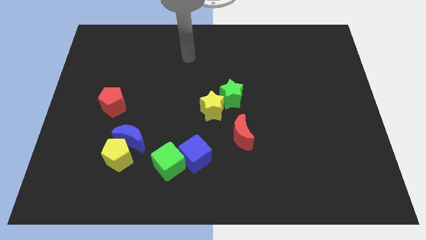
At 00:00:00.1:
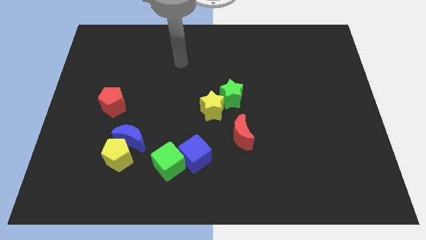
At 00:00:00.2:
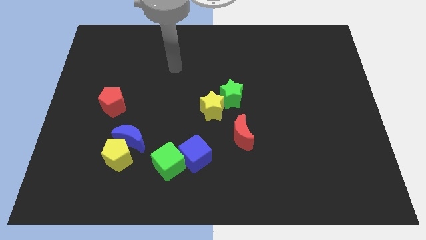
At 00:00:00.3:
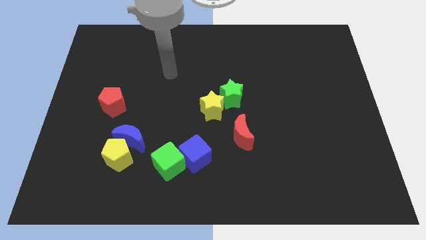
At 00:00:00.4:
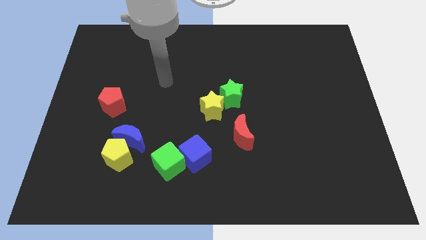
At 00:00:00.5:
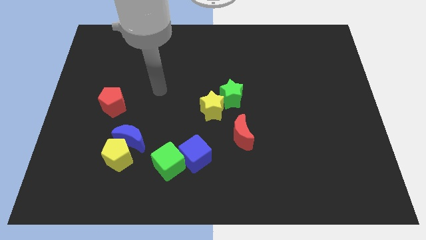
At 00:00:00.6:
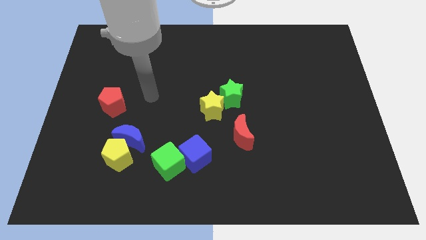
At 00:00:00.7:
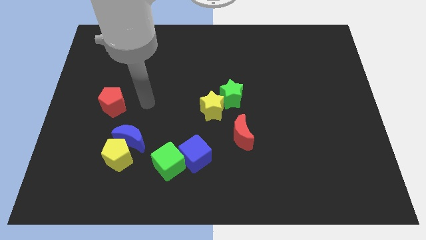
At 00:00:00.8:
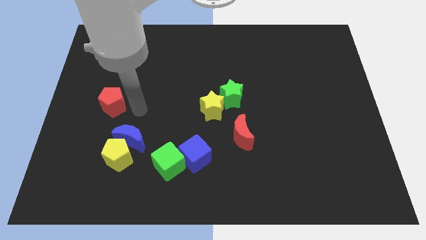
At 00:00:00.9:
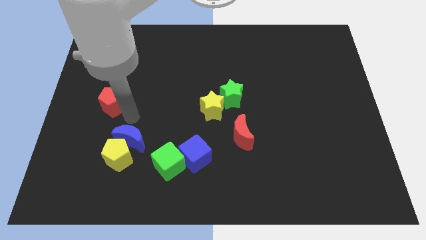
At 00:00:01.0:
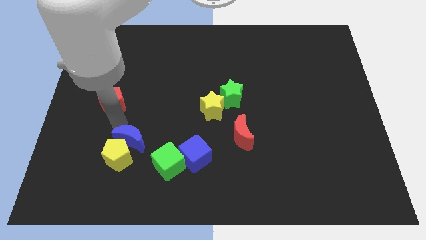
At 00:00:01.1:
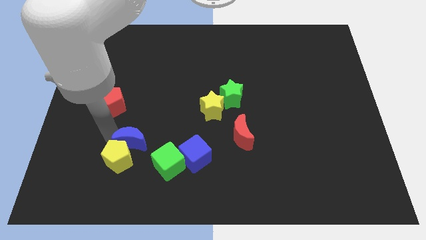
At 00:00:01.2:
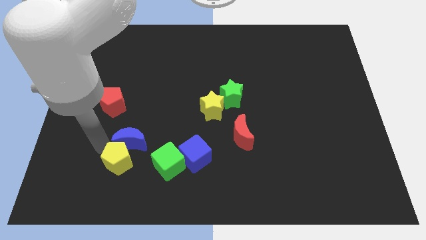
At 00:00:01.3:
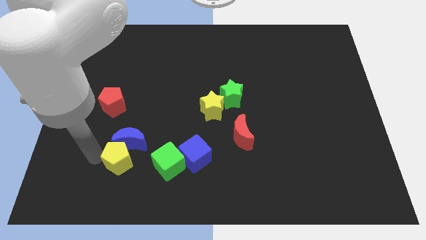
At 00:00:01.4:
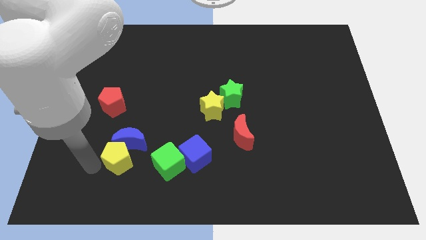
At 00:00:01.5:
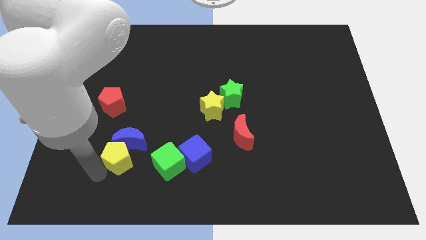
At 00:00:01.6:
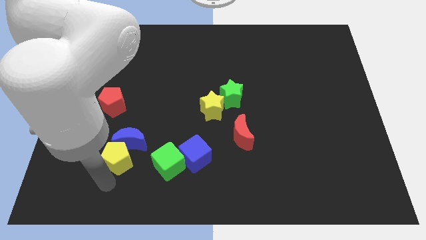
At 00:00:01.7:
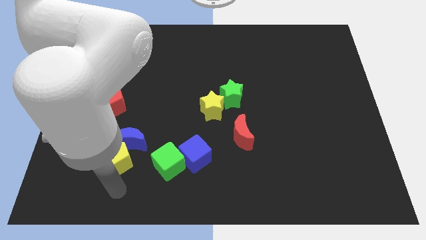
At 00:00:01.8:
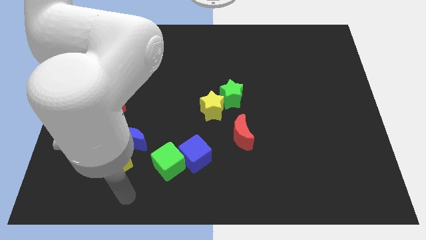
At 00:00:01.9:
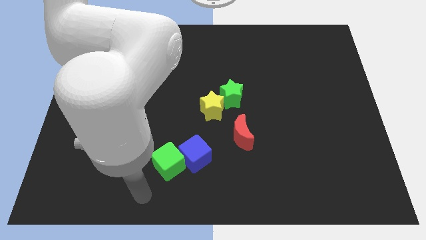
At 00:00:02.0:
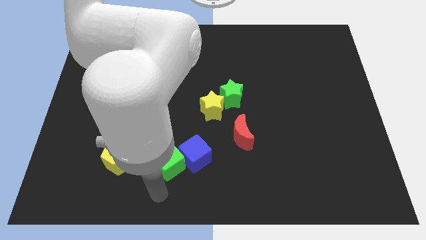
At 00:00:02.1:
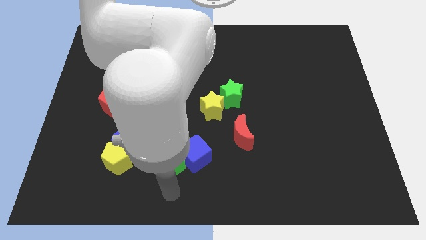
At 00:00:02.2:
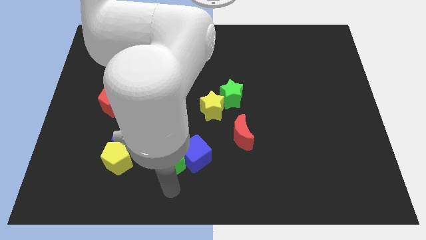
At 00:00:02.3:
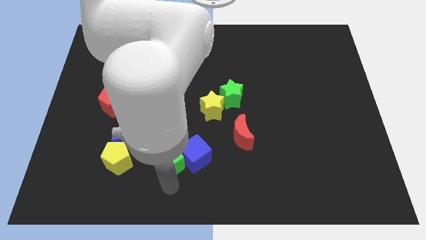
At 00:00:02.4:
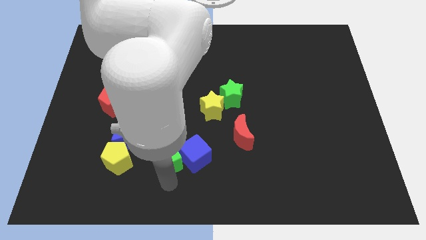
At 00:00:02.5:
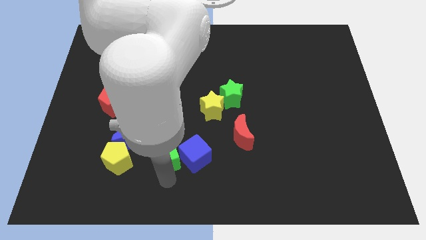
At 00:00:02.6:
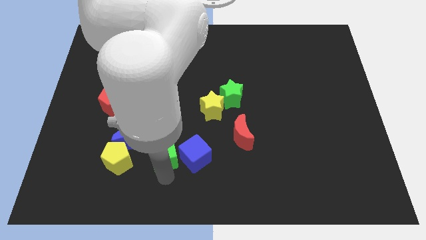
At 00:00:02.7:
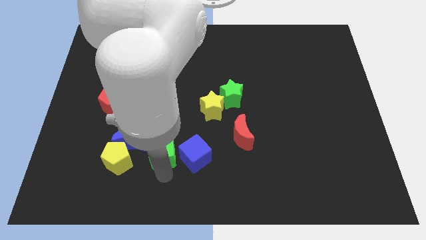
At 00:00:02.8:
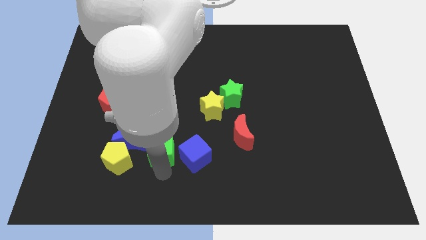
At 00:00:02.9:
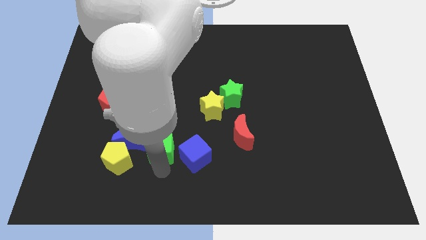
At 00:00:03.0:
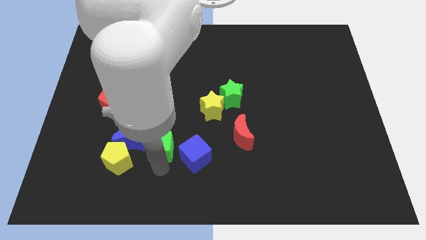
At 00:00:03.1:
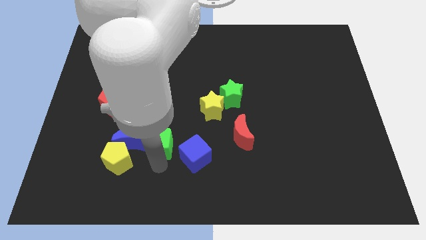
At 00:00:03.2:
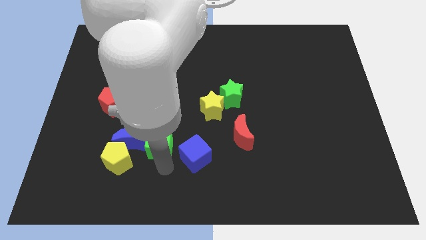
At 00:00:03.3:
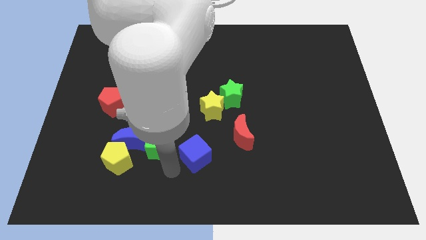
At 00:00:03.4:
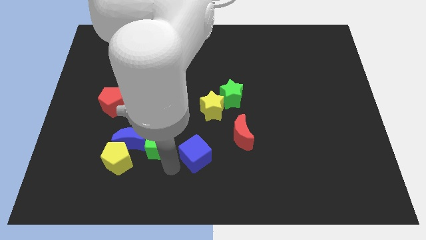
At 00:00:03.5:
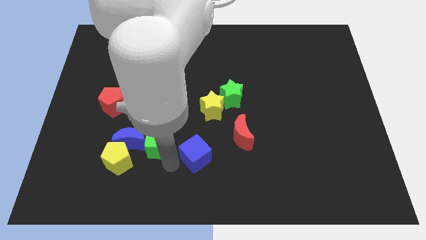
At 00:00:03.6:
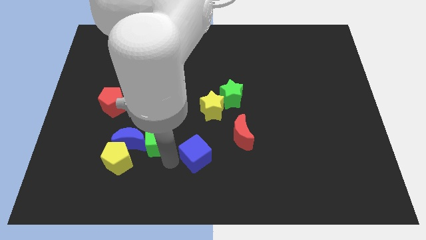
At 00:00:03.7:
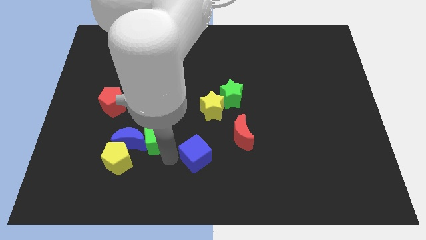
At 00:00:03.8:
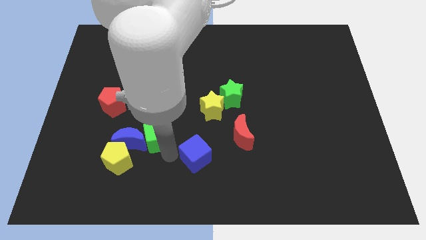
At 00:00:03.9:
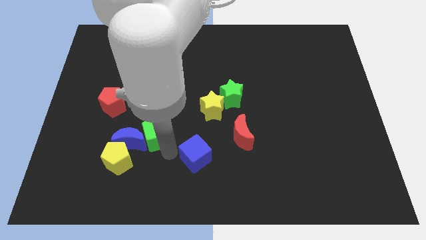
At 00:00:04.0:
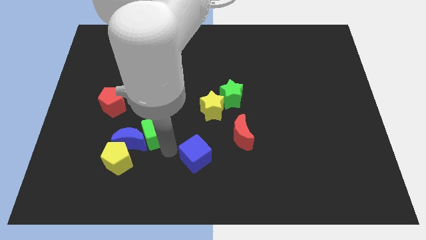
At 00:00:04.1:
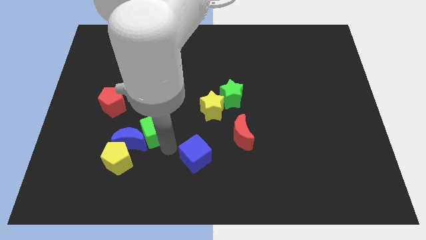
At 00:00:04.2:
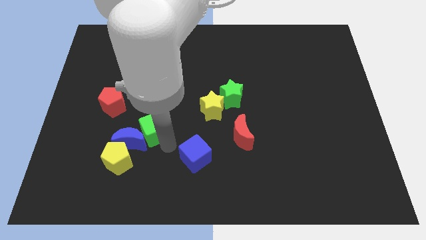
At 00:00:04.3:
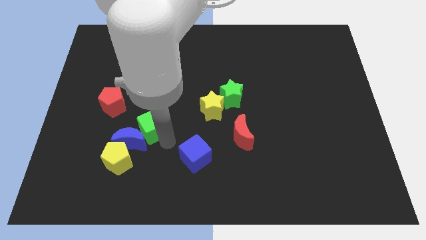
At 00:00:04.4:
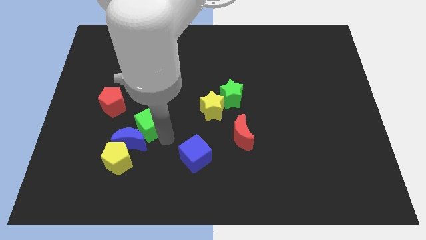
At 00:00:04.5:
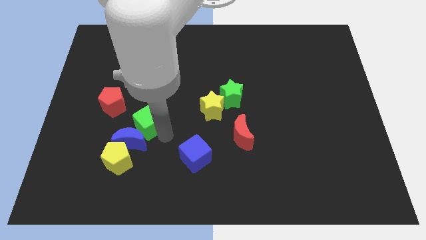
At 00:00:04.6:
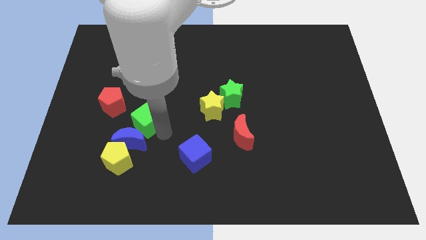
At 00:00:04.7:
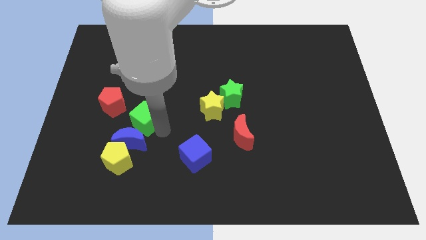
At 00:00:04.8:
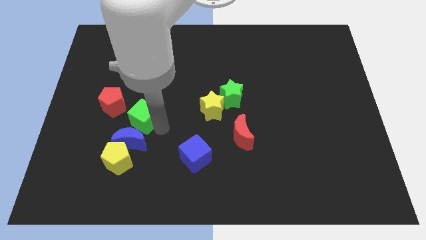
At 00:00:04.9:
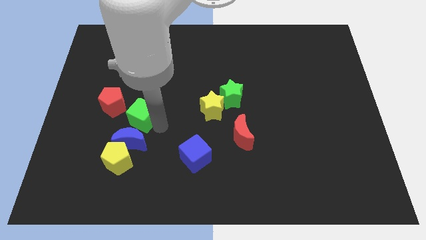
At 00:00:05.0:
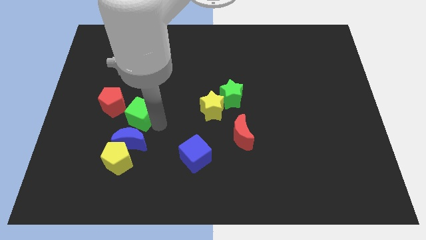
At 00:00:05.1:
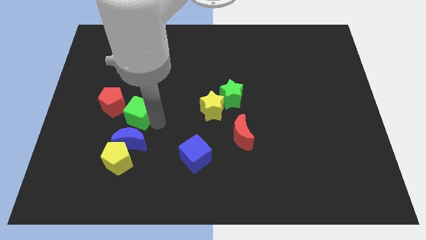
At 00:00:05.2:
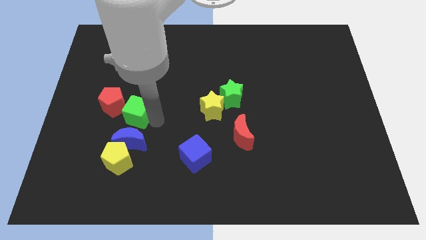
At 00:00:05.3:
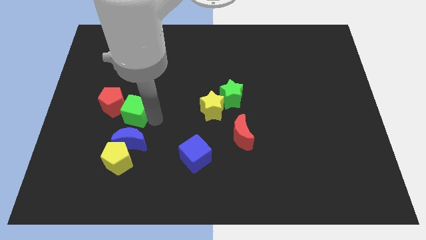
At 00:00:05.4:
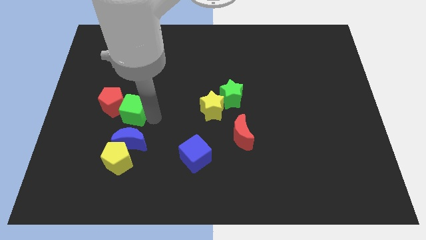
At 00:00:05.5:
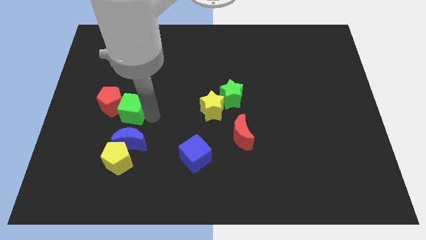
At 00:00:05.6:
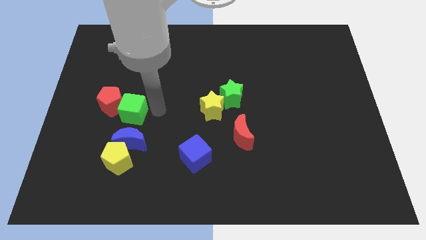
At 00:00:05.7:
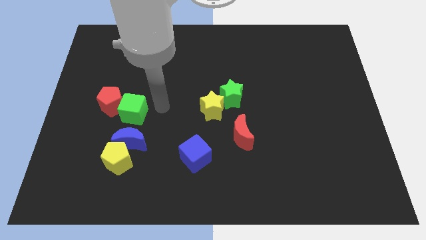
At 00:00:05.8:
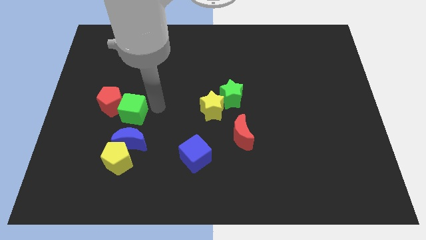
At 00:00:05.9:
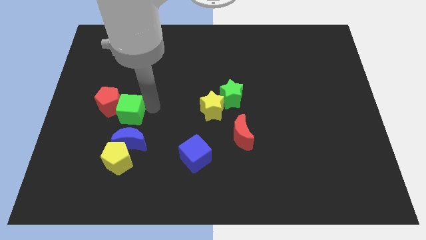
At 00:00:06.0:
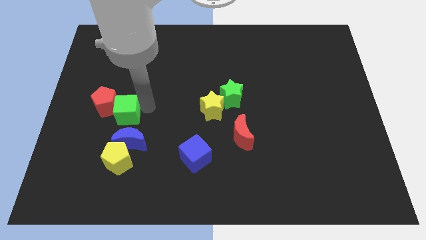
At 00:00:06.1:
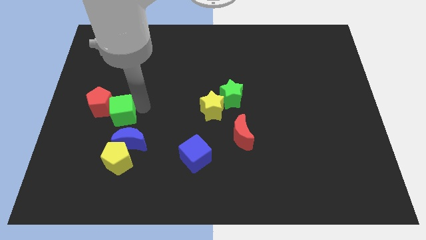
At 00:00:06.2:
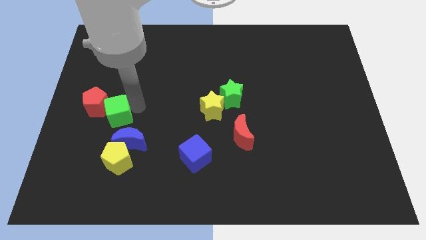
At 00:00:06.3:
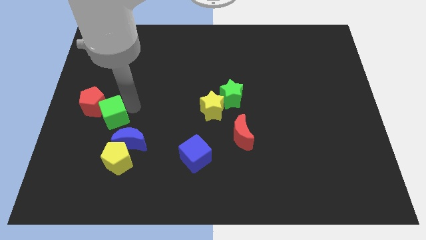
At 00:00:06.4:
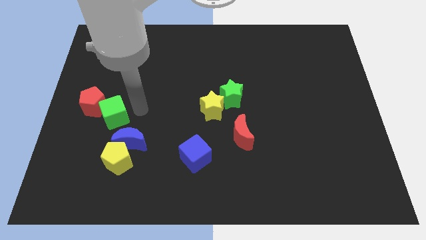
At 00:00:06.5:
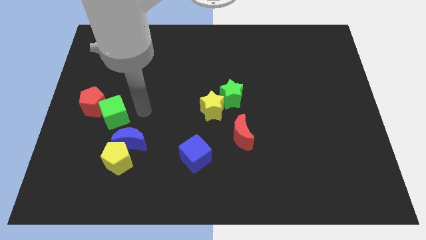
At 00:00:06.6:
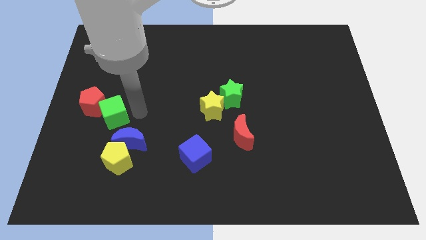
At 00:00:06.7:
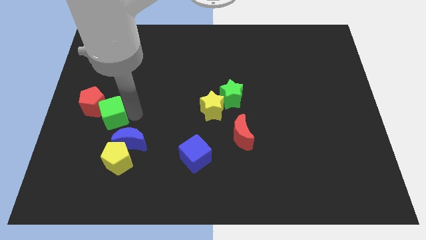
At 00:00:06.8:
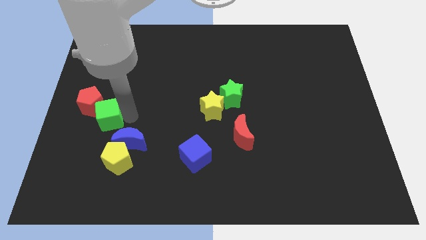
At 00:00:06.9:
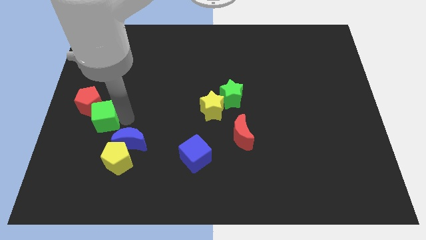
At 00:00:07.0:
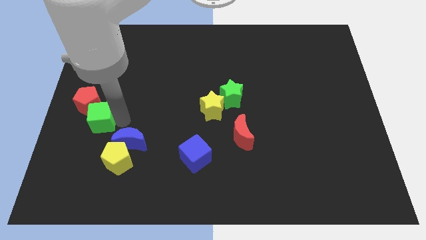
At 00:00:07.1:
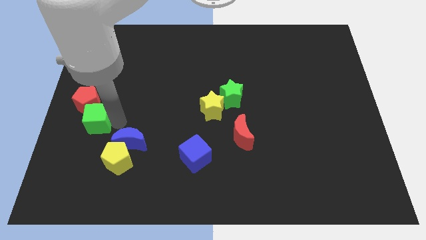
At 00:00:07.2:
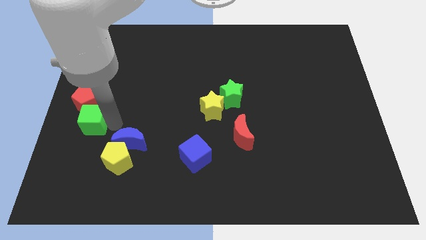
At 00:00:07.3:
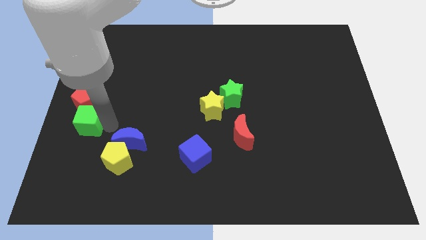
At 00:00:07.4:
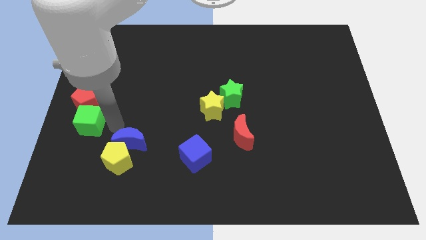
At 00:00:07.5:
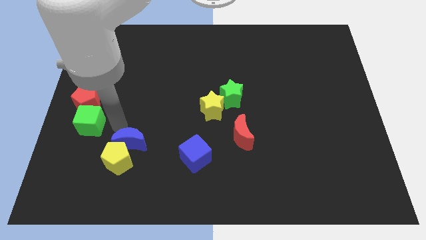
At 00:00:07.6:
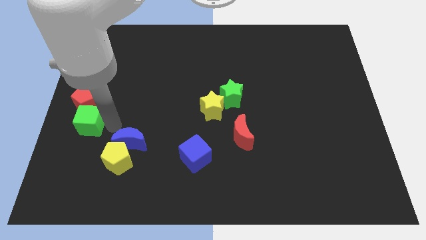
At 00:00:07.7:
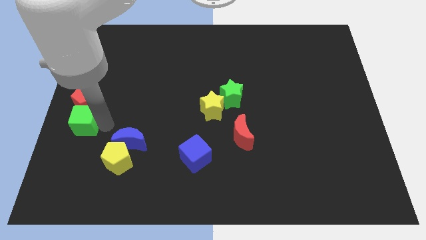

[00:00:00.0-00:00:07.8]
put the green cube to the bottom left of the red pentagon
